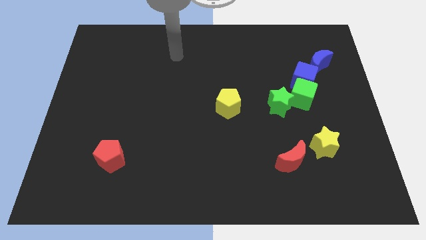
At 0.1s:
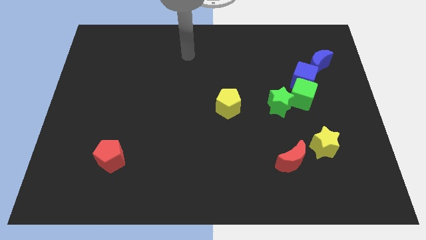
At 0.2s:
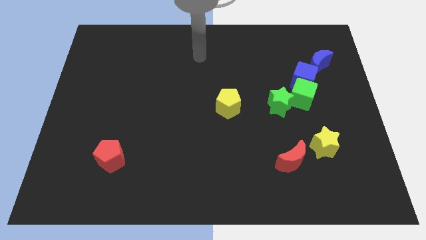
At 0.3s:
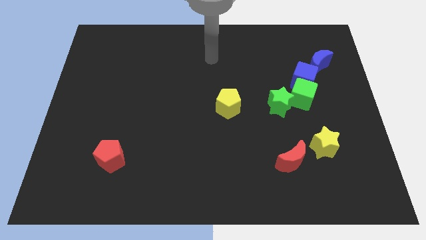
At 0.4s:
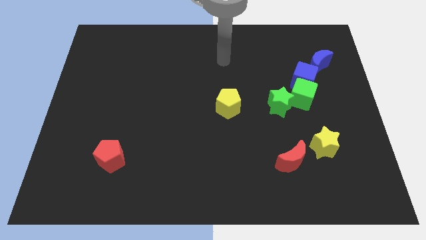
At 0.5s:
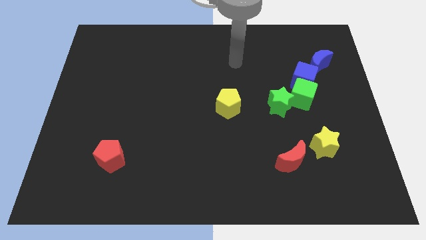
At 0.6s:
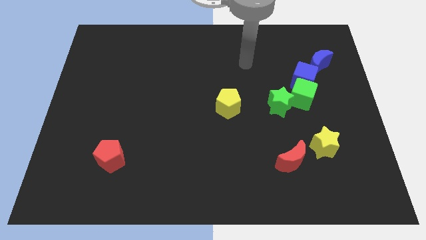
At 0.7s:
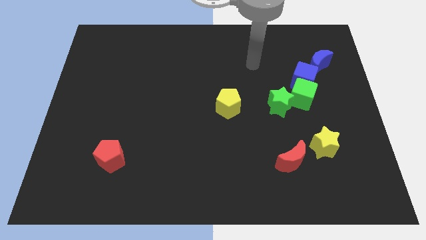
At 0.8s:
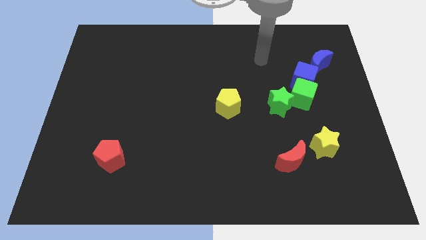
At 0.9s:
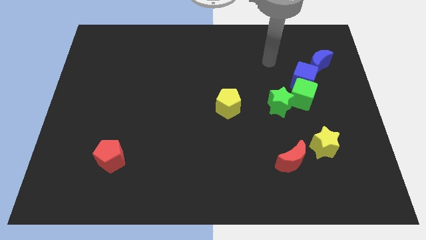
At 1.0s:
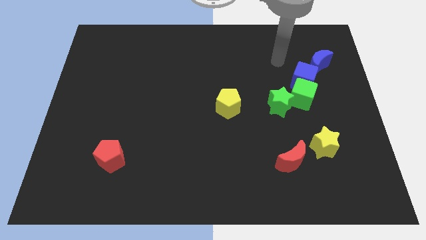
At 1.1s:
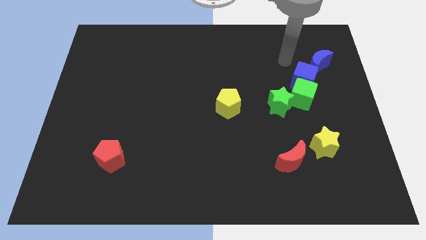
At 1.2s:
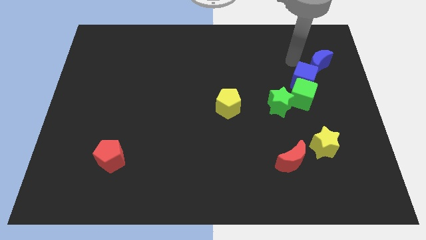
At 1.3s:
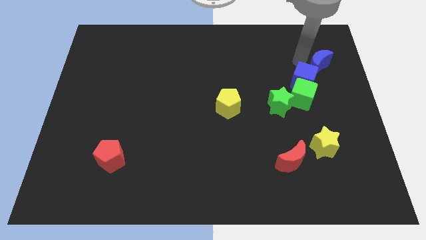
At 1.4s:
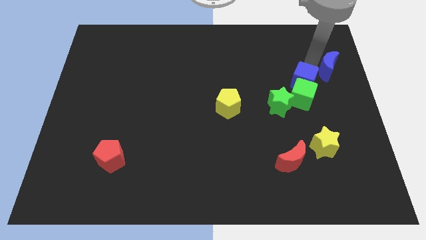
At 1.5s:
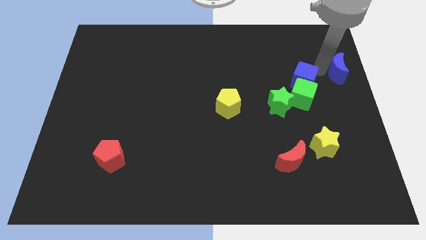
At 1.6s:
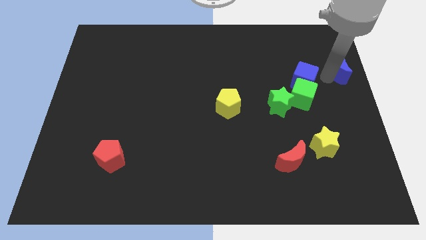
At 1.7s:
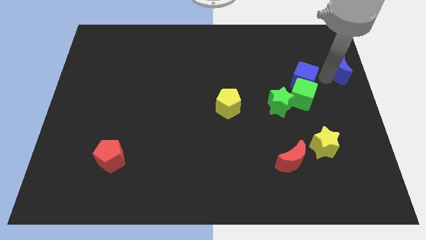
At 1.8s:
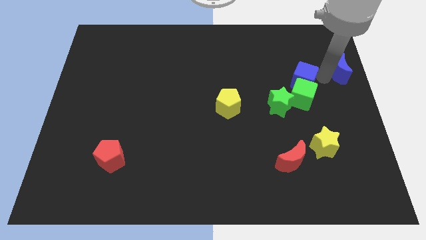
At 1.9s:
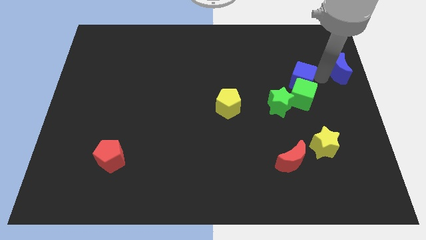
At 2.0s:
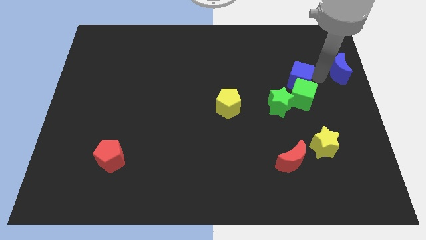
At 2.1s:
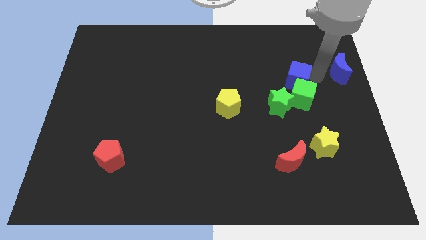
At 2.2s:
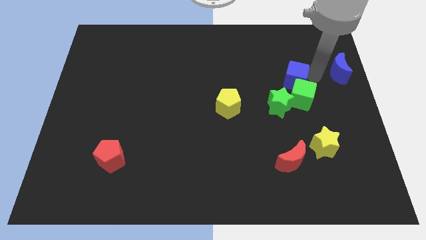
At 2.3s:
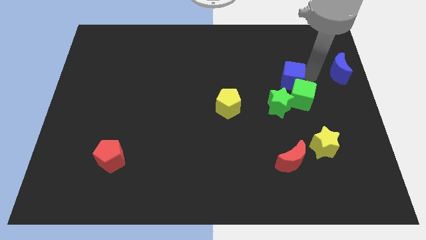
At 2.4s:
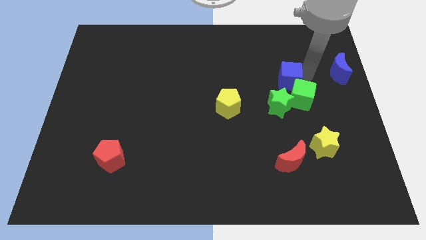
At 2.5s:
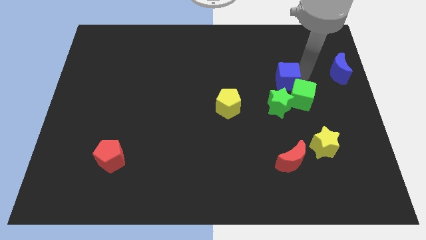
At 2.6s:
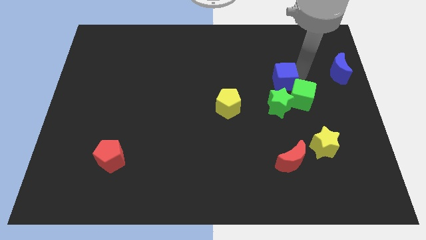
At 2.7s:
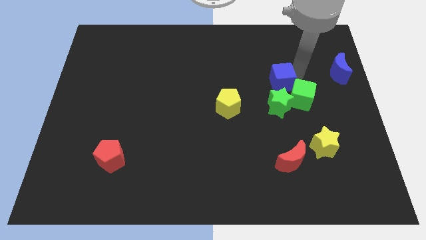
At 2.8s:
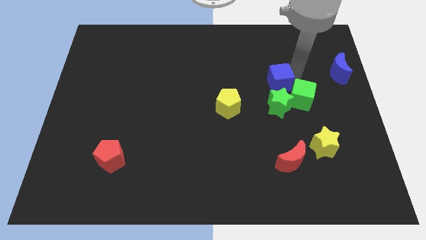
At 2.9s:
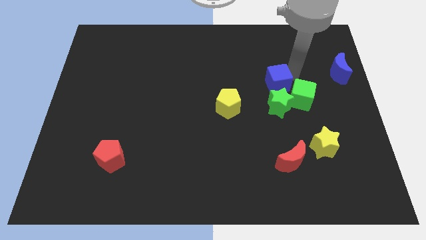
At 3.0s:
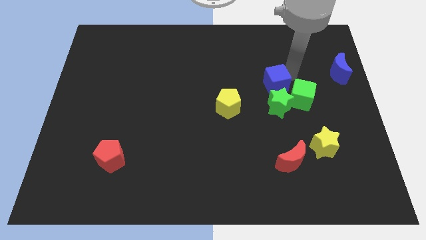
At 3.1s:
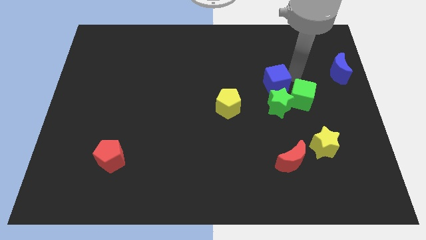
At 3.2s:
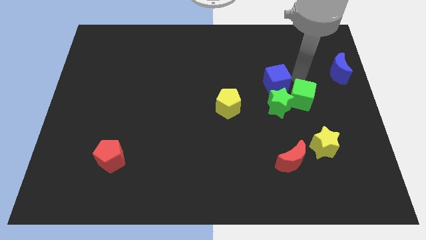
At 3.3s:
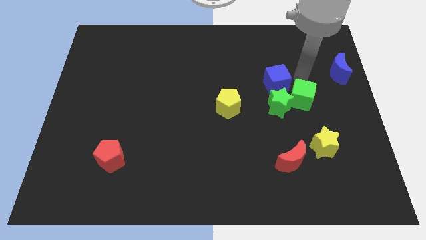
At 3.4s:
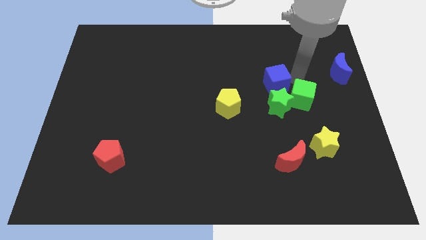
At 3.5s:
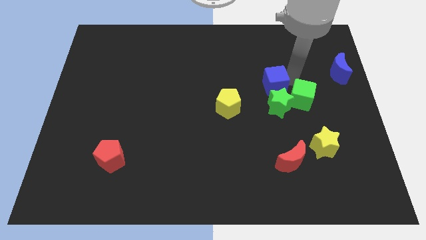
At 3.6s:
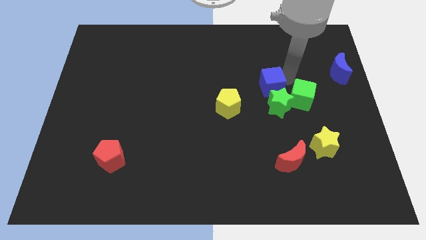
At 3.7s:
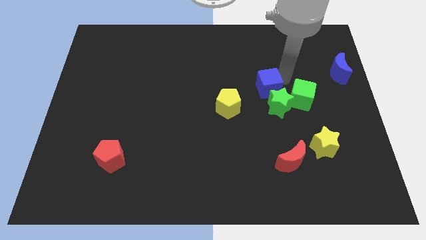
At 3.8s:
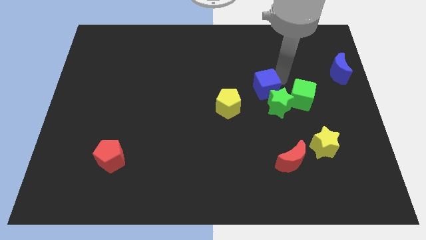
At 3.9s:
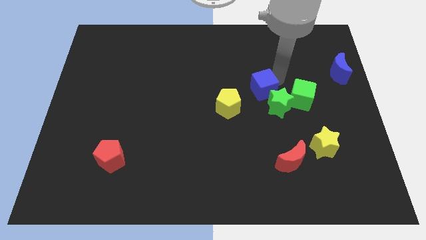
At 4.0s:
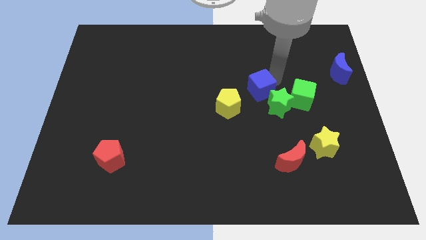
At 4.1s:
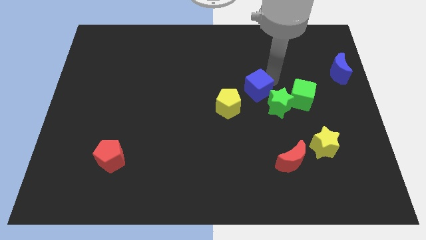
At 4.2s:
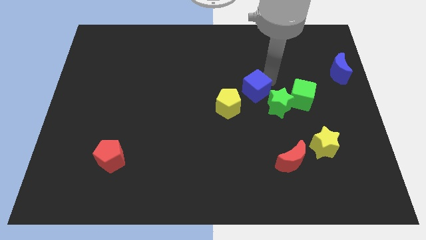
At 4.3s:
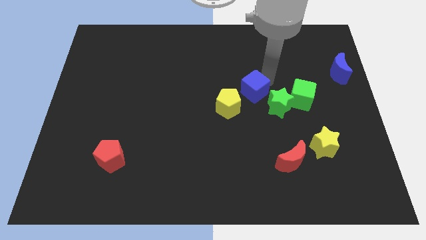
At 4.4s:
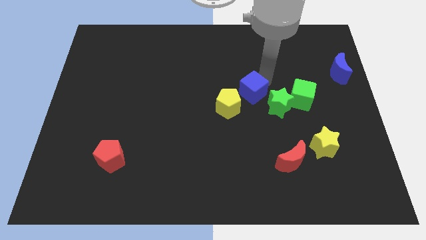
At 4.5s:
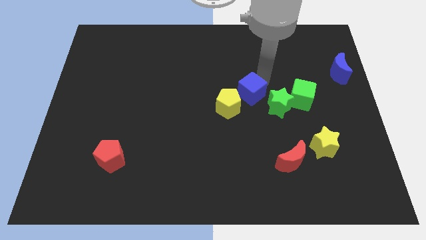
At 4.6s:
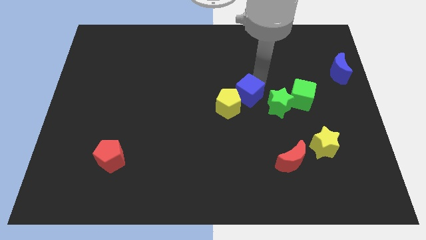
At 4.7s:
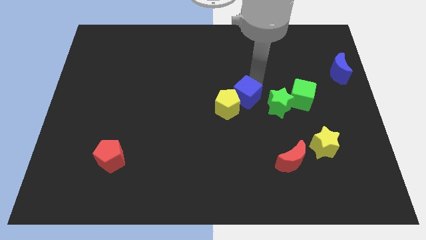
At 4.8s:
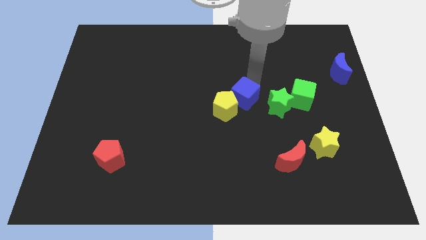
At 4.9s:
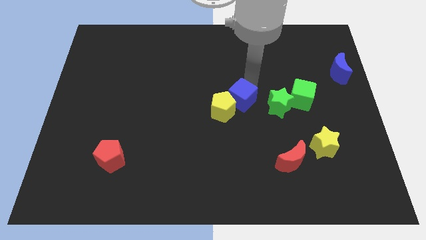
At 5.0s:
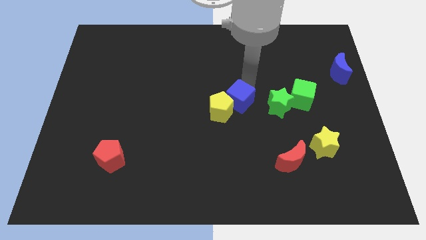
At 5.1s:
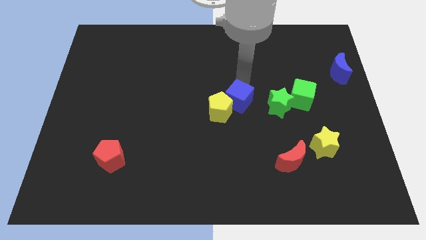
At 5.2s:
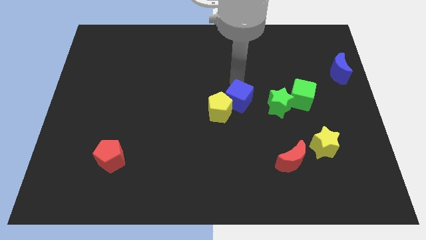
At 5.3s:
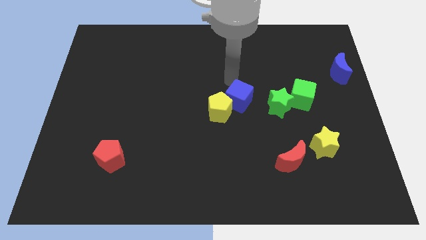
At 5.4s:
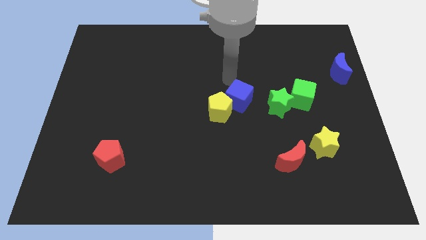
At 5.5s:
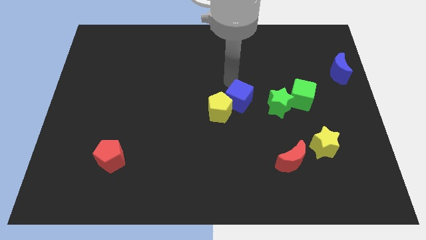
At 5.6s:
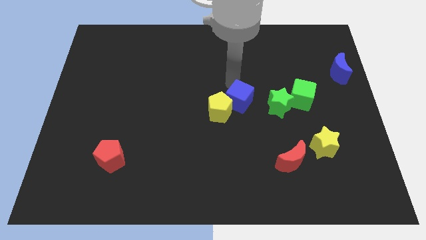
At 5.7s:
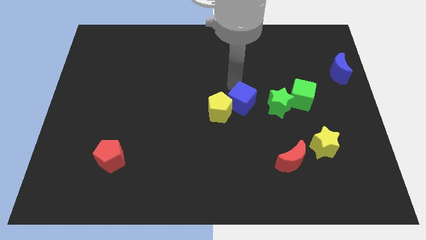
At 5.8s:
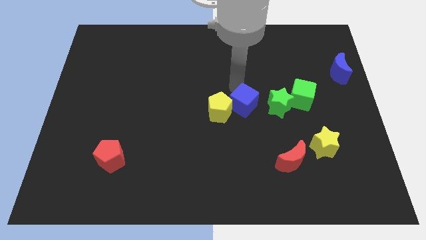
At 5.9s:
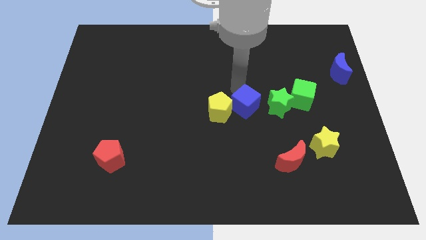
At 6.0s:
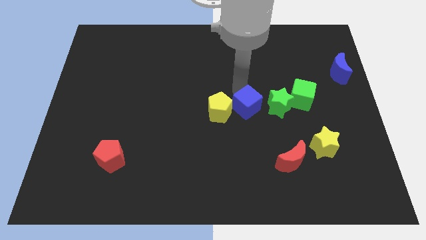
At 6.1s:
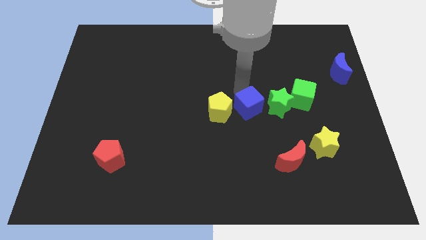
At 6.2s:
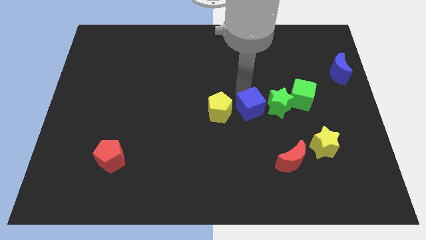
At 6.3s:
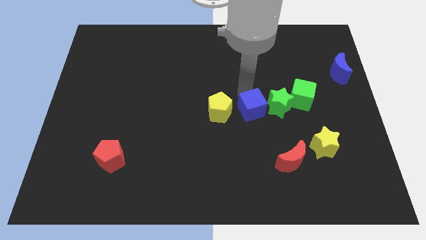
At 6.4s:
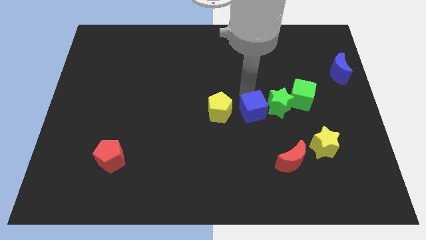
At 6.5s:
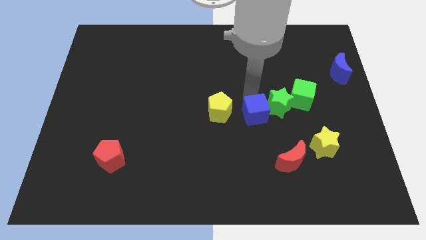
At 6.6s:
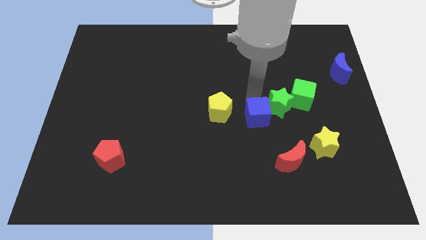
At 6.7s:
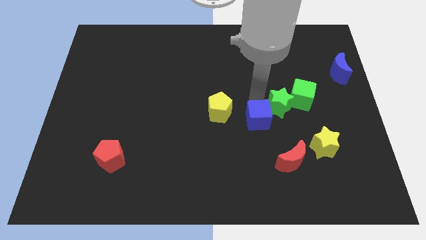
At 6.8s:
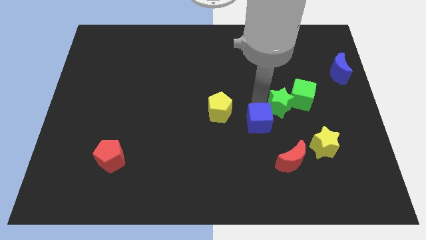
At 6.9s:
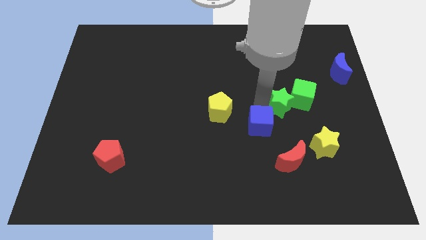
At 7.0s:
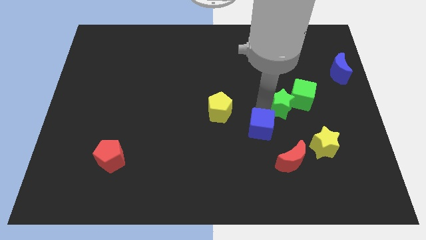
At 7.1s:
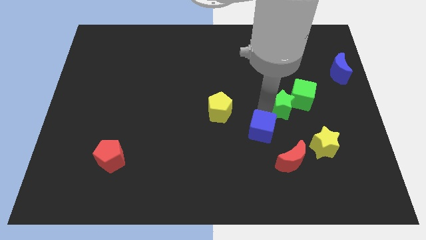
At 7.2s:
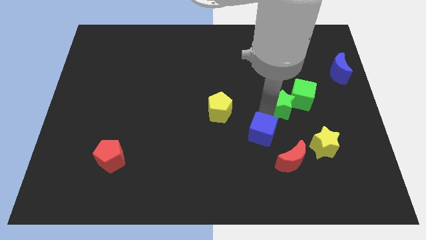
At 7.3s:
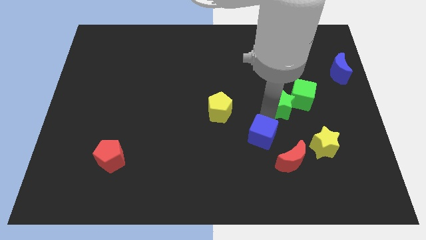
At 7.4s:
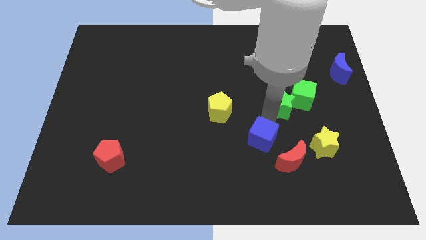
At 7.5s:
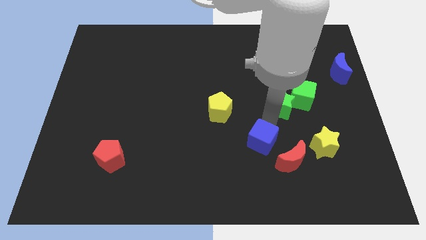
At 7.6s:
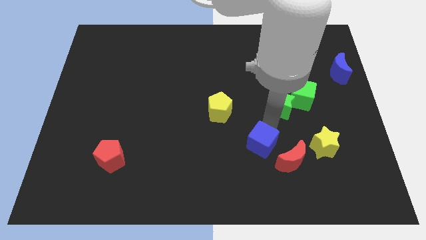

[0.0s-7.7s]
put the blue cube just left of the red moon

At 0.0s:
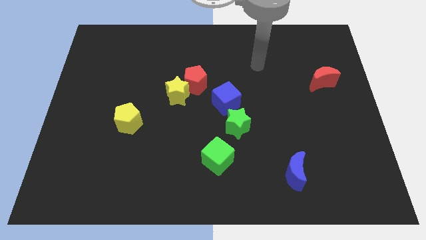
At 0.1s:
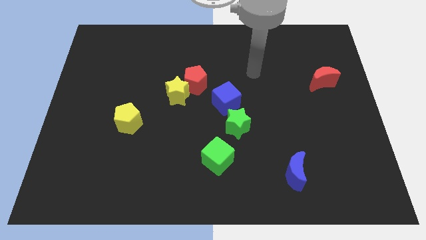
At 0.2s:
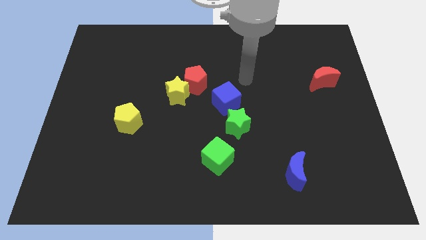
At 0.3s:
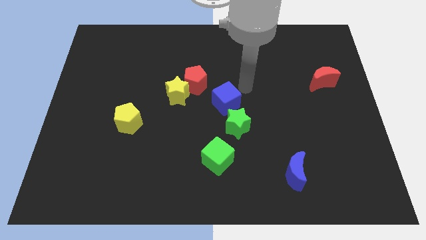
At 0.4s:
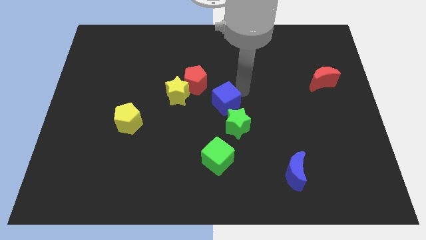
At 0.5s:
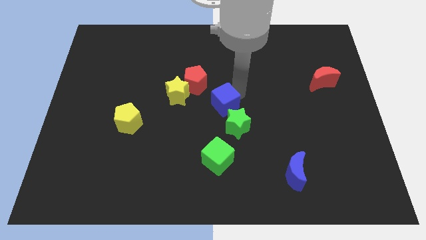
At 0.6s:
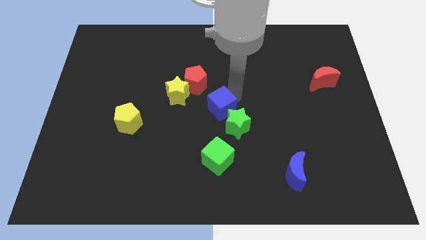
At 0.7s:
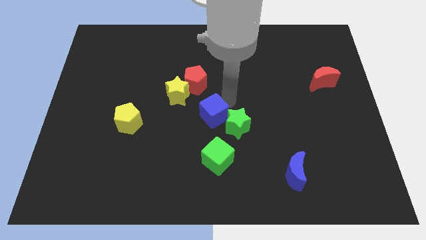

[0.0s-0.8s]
push the blue cube to the left side of the green star

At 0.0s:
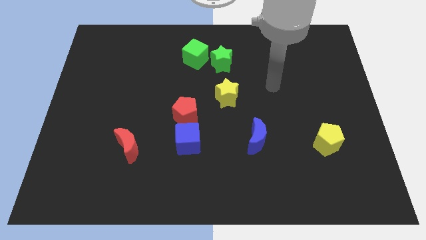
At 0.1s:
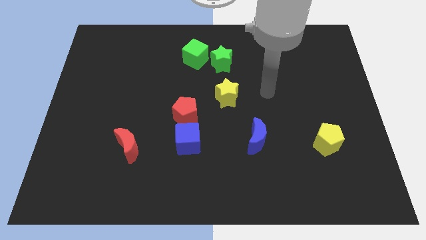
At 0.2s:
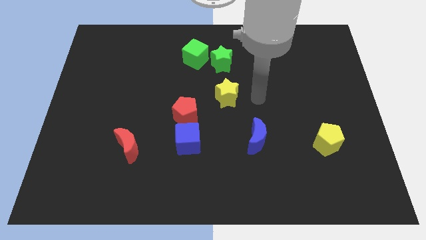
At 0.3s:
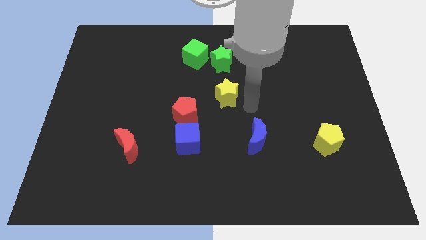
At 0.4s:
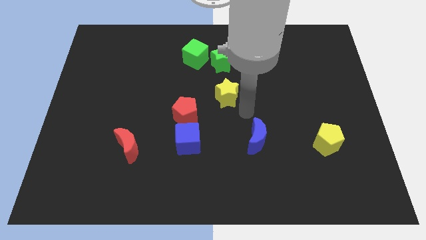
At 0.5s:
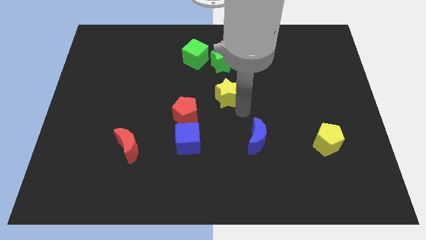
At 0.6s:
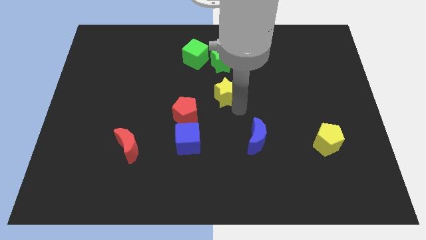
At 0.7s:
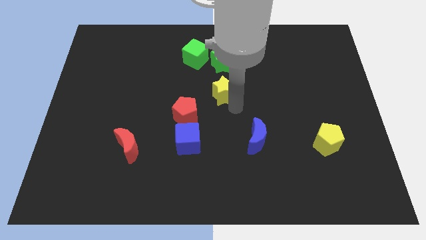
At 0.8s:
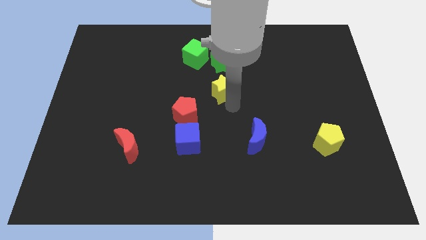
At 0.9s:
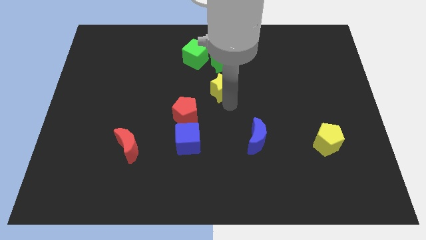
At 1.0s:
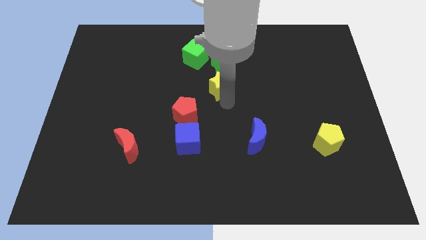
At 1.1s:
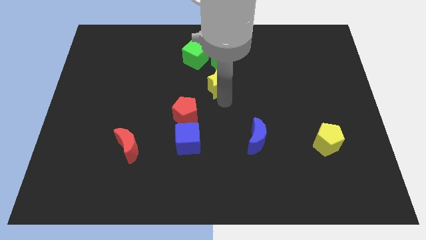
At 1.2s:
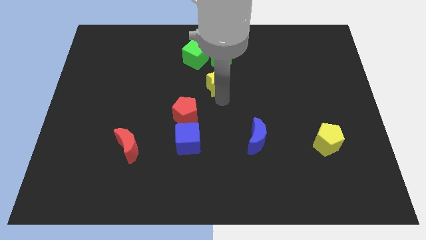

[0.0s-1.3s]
move the yellow star to the bottom left of the green star
